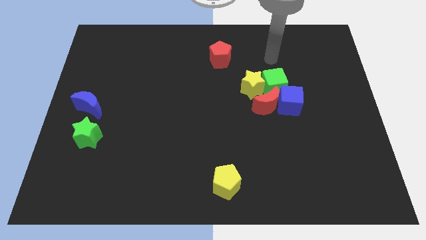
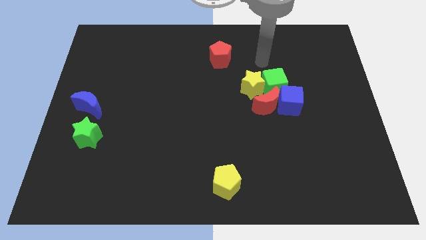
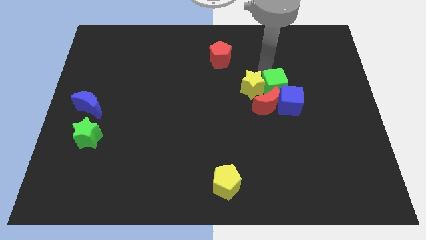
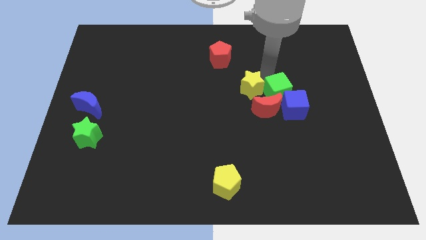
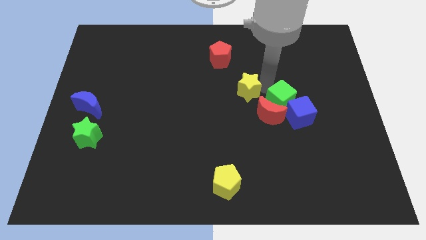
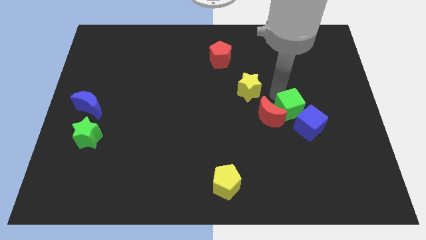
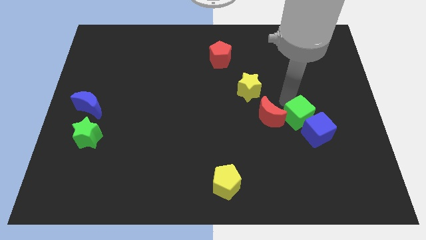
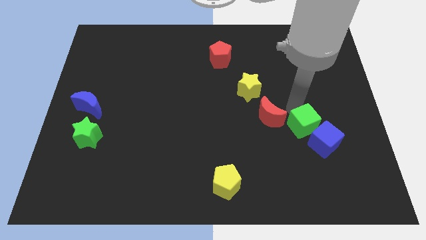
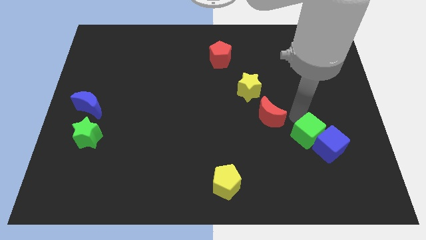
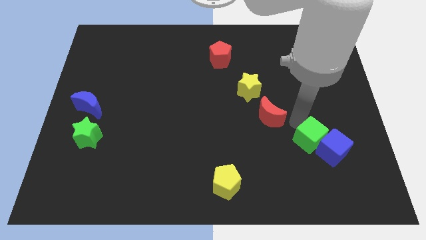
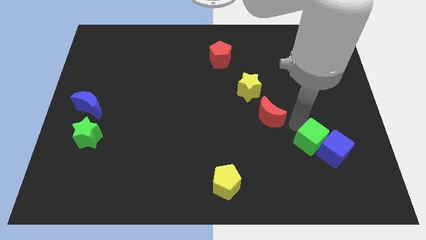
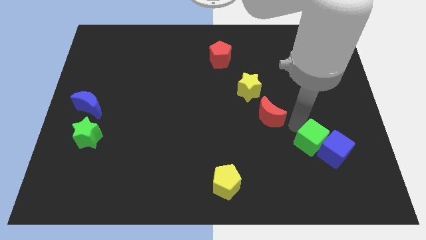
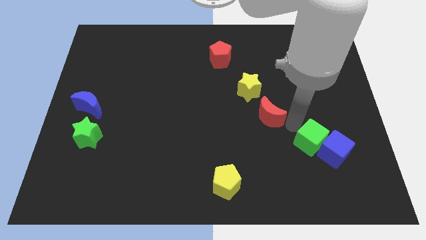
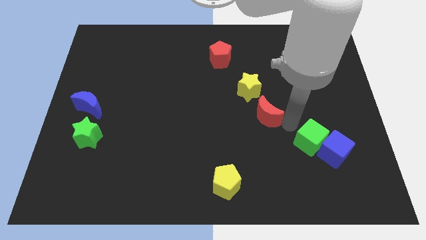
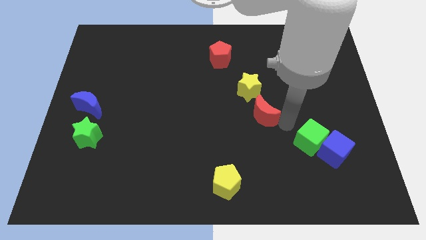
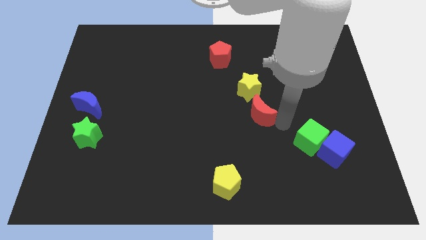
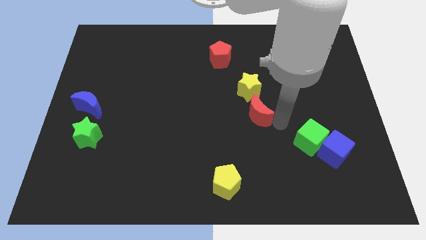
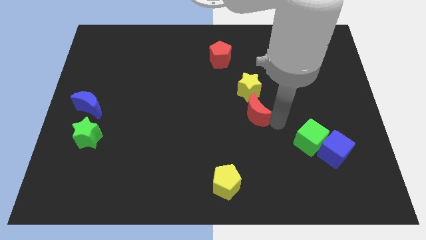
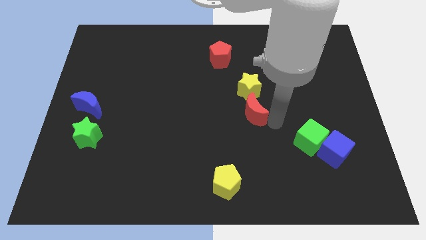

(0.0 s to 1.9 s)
separate the red moon from the blue cube, green cube, and yellow star

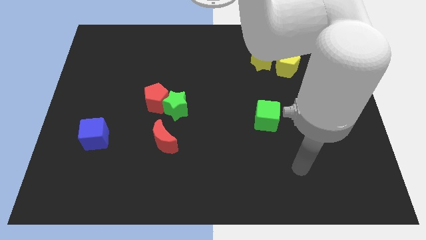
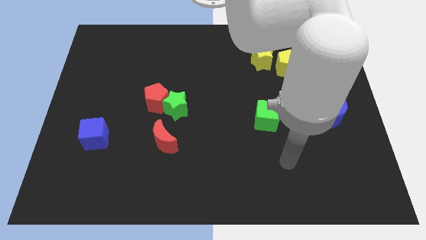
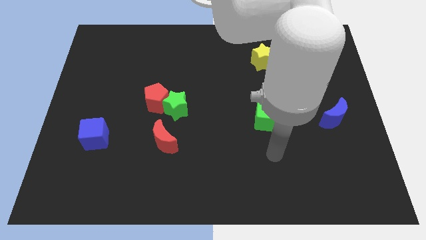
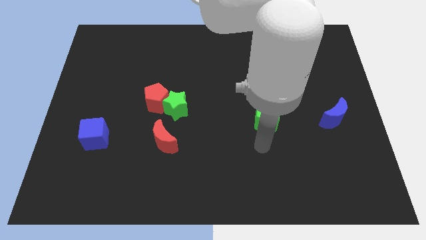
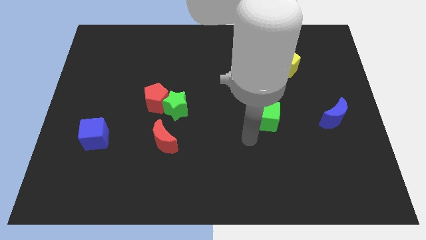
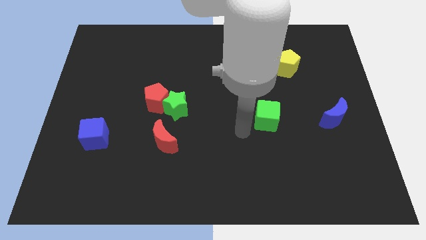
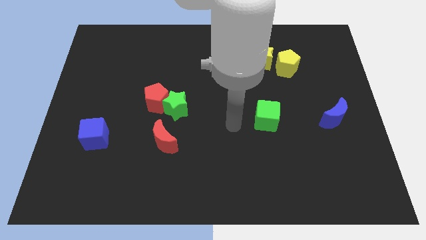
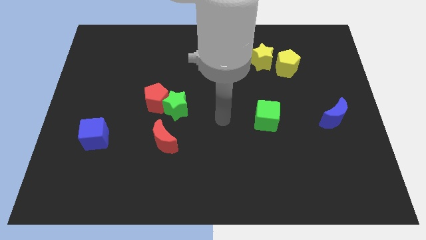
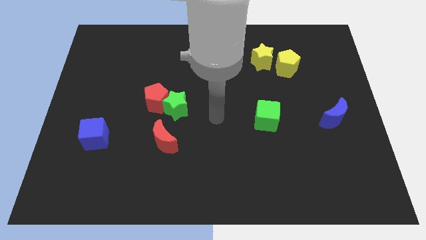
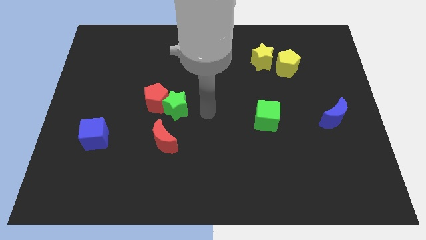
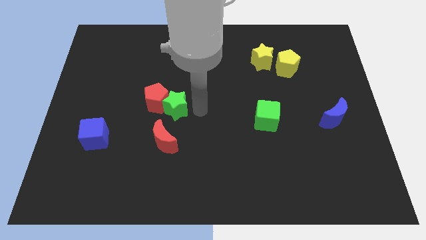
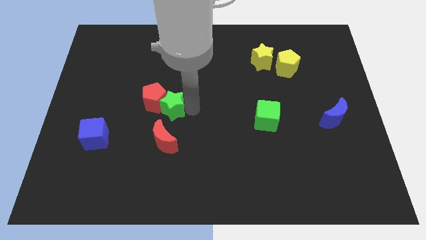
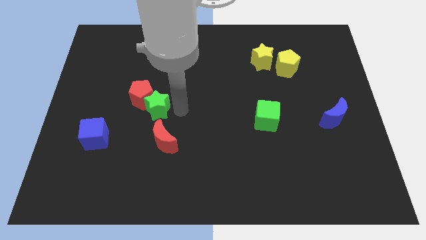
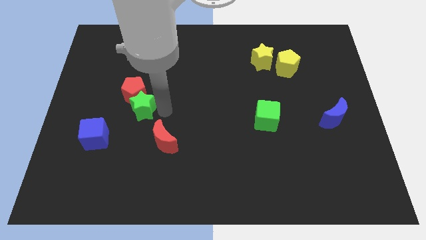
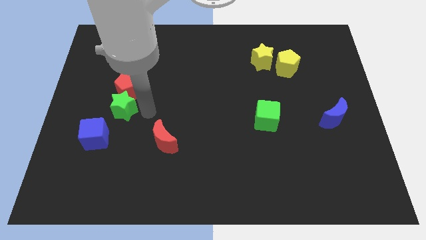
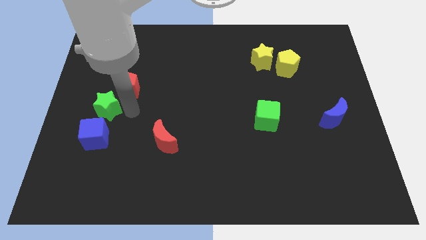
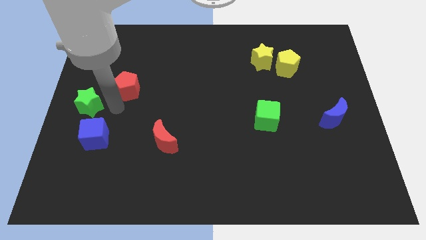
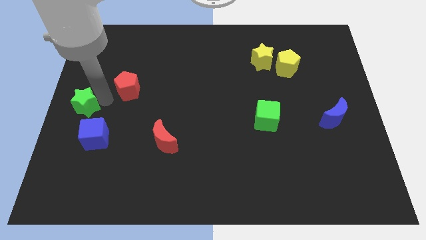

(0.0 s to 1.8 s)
pull the red pentagon apart from the green star

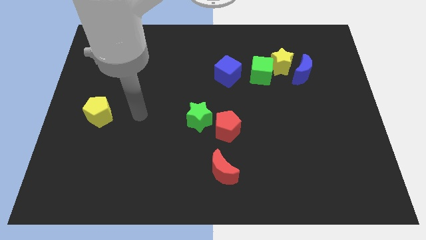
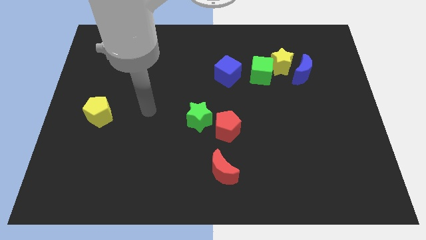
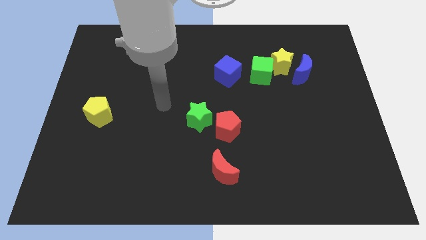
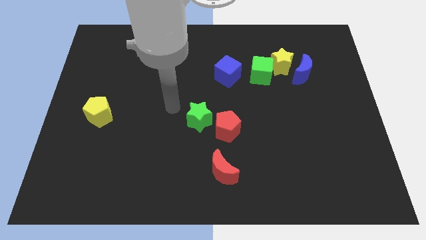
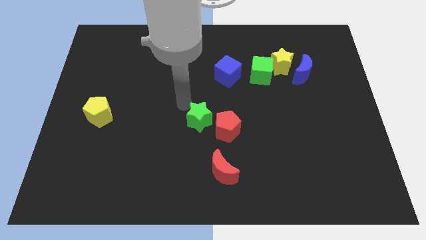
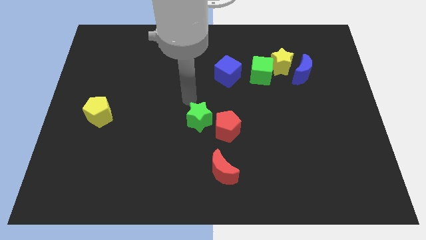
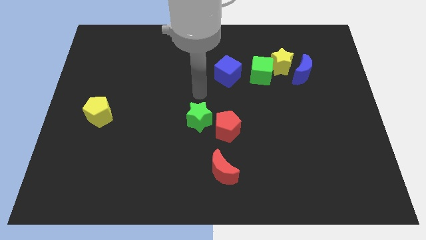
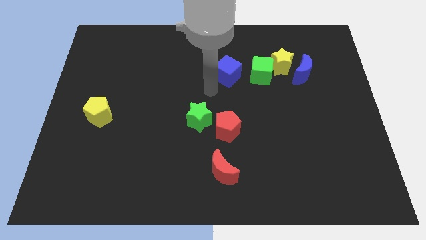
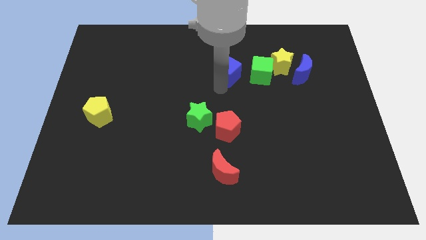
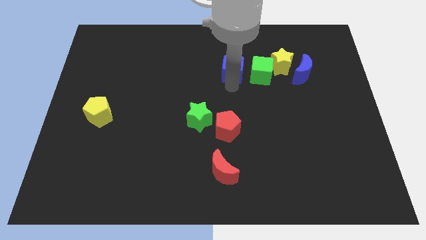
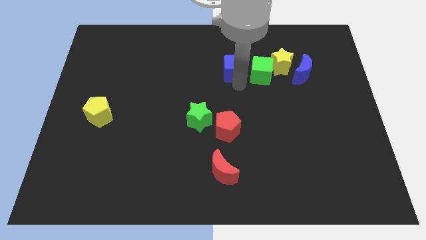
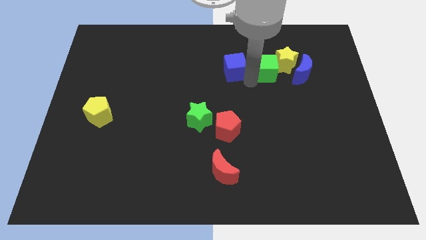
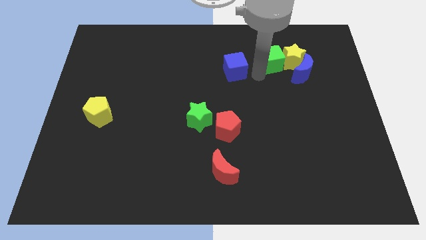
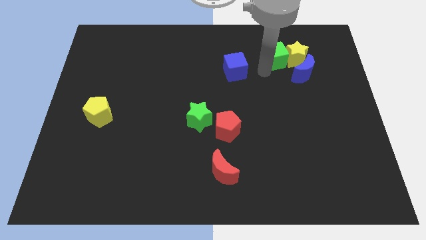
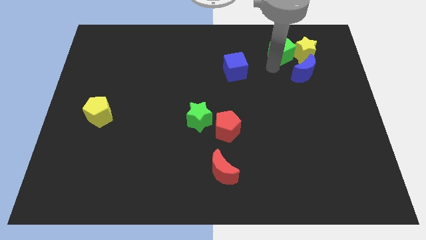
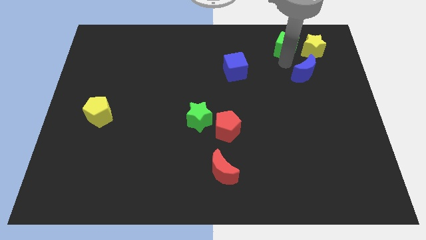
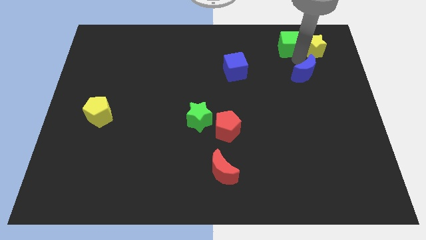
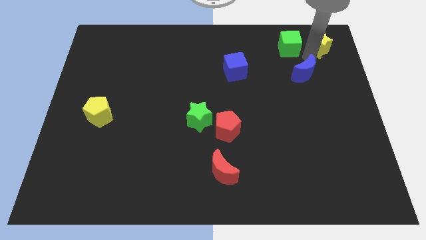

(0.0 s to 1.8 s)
separate the blue moon from the yellow star

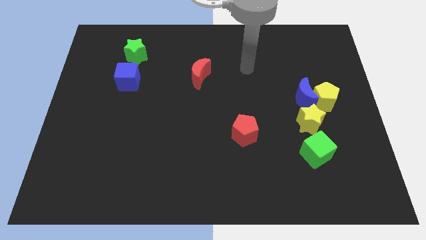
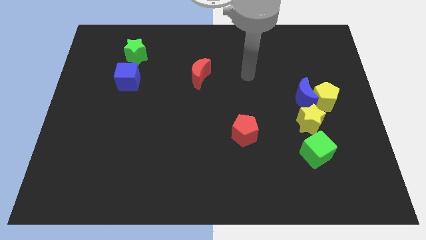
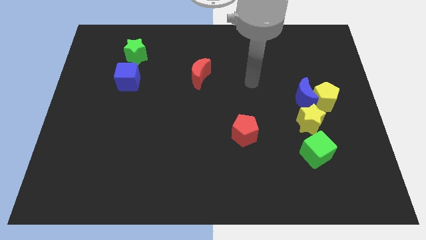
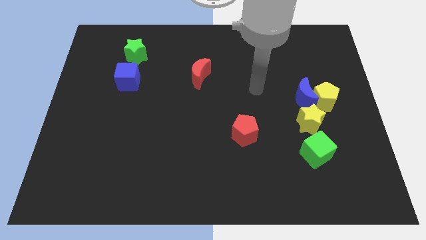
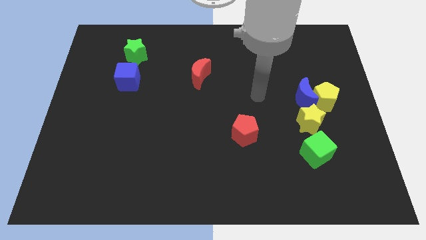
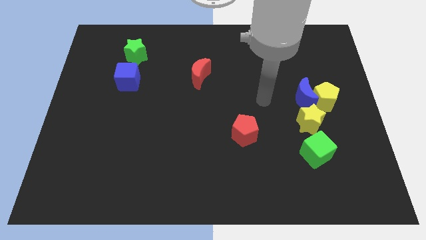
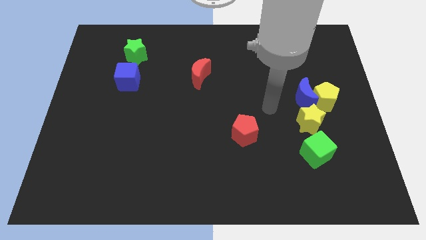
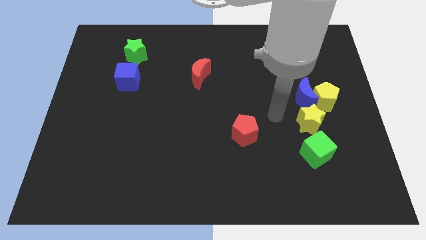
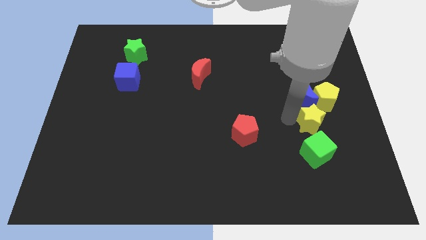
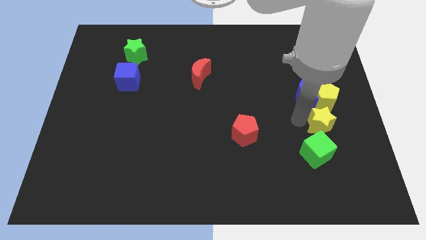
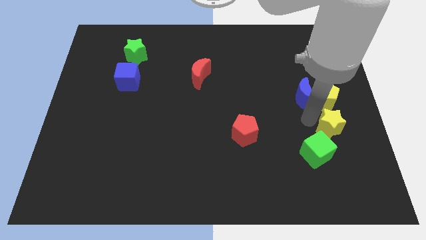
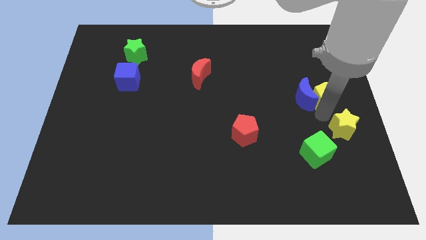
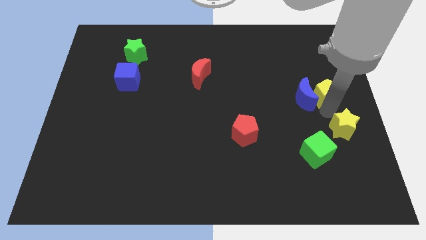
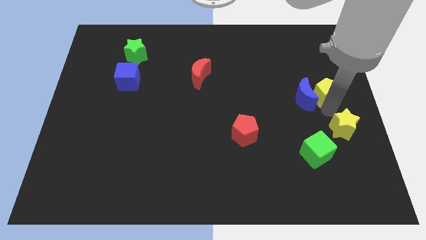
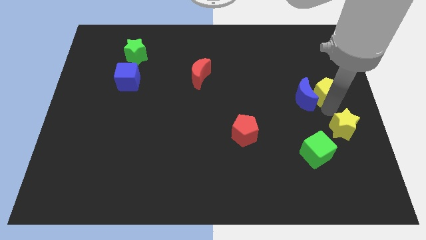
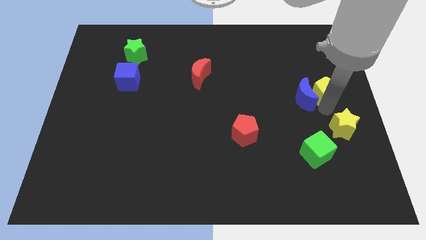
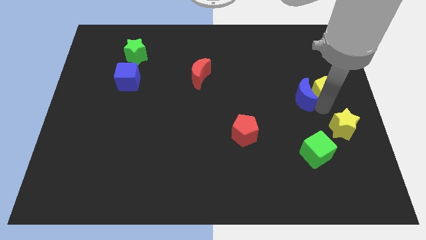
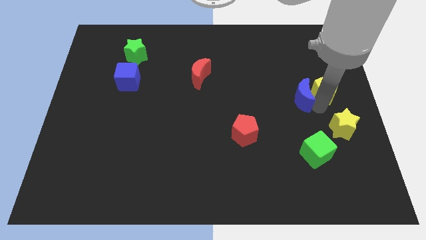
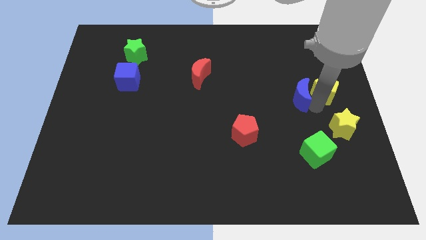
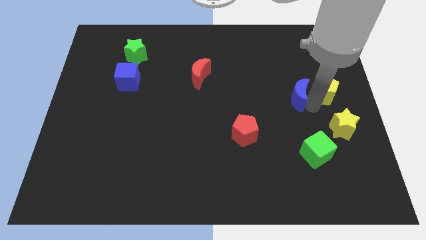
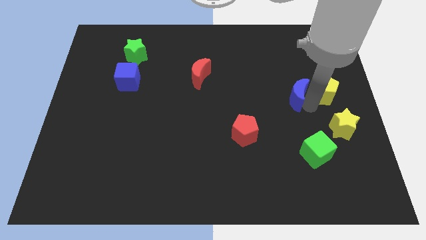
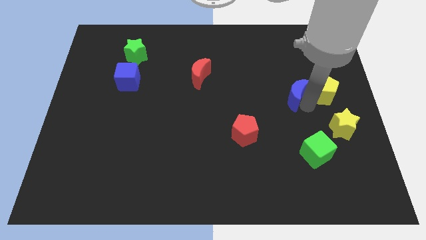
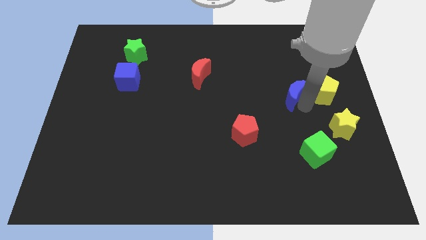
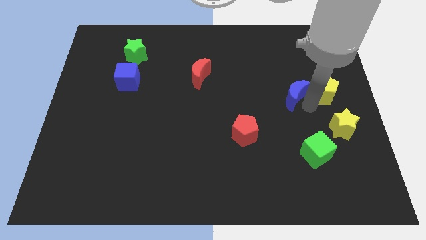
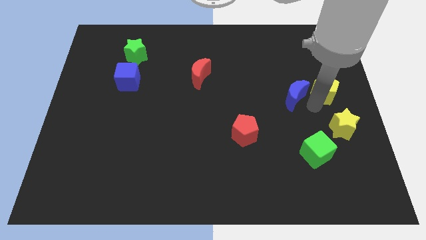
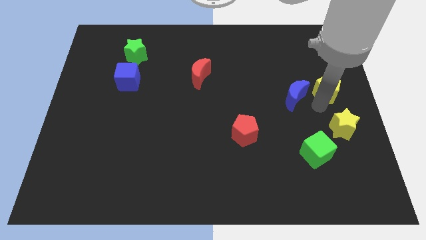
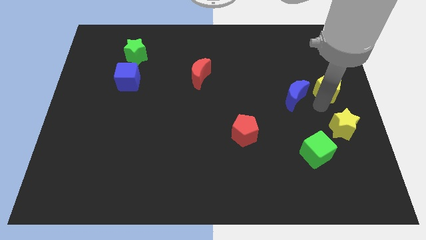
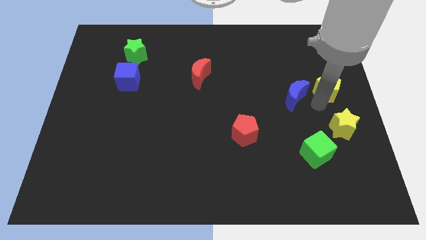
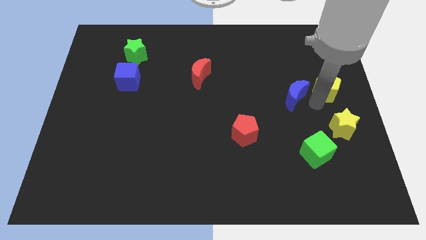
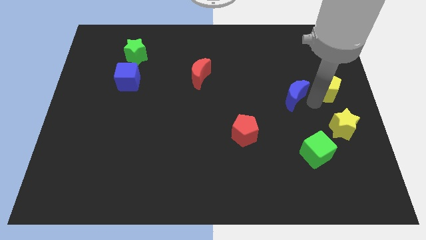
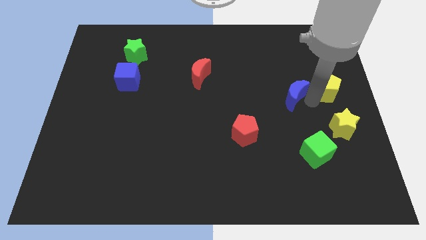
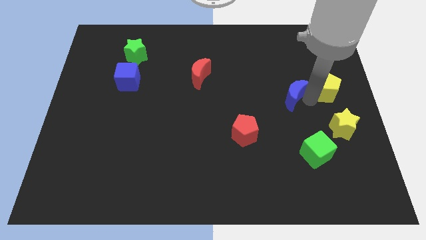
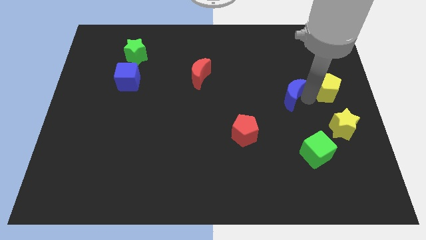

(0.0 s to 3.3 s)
separate the blue moon from the yellow pentagon and yellow star

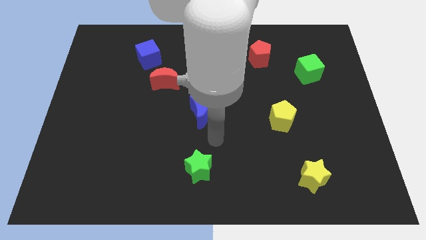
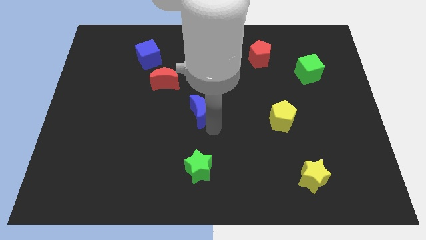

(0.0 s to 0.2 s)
move the red moon away from the blue cube

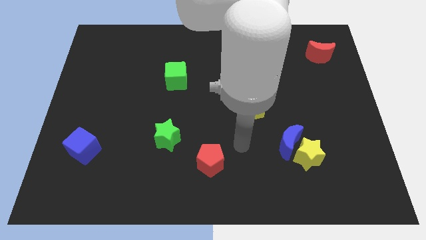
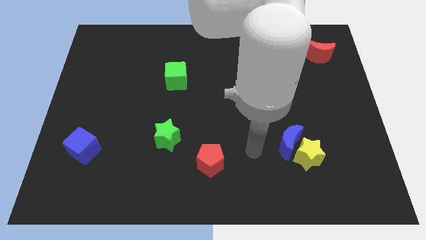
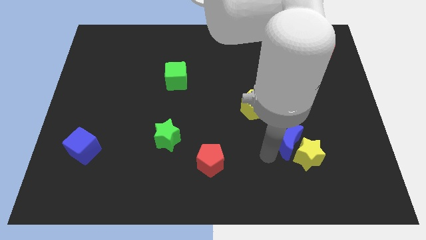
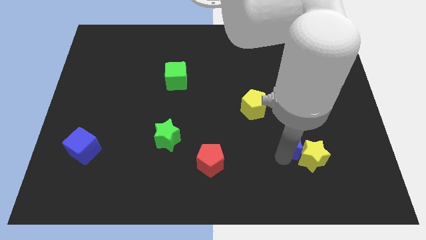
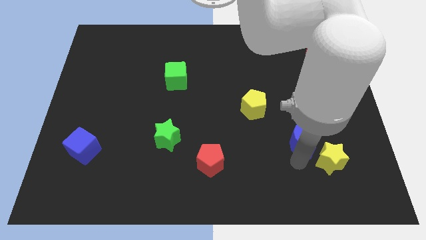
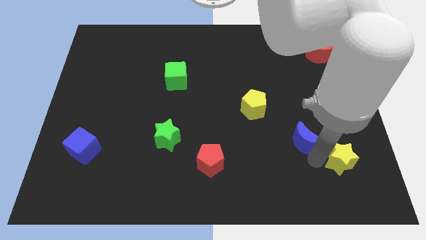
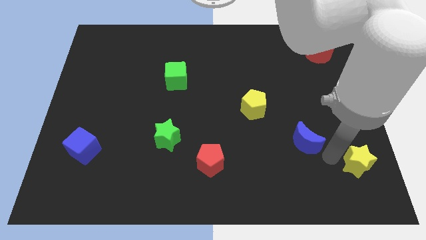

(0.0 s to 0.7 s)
pull the blue moon apart from the yellow star
